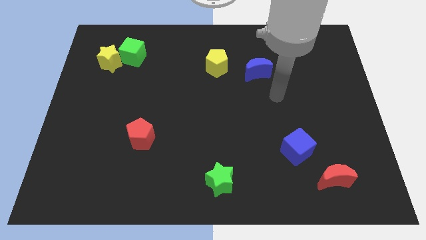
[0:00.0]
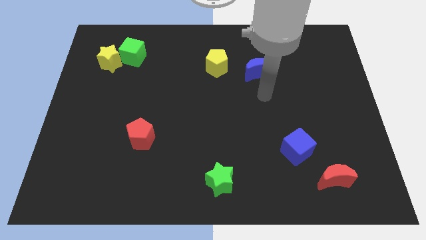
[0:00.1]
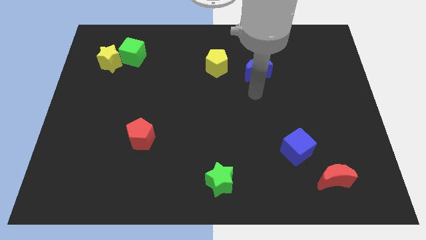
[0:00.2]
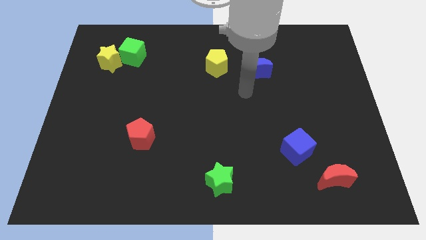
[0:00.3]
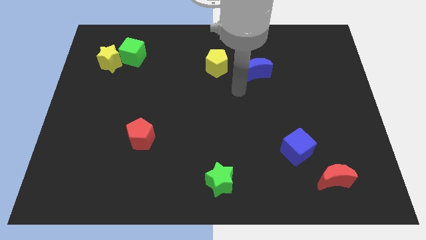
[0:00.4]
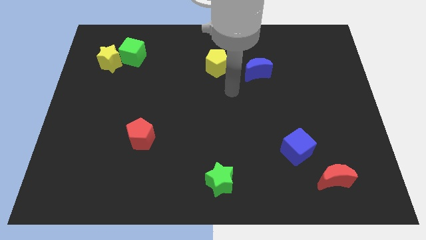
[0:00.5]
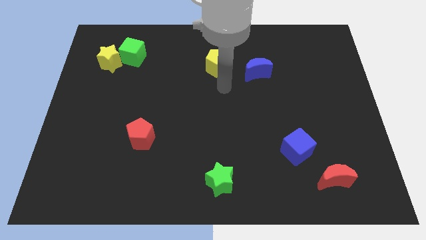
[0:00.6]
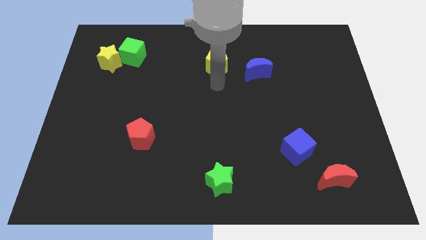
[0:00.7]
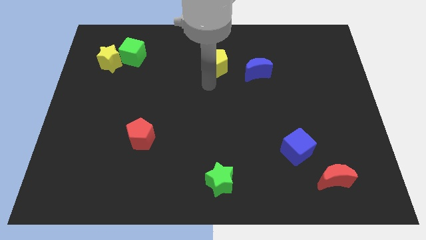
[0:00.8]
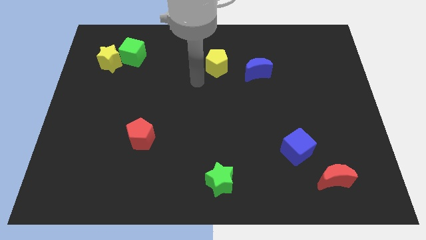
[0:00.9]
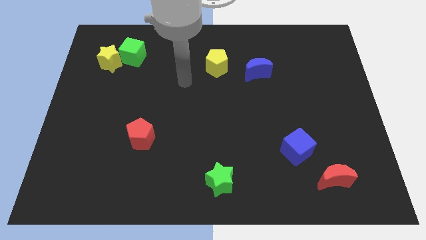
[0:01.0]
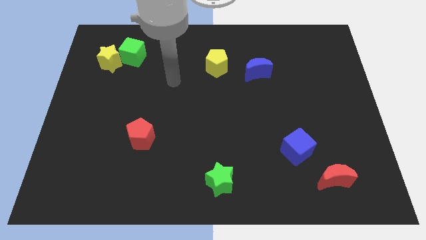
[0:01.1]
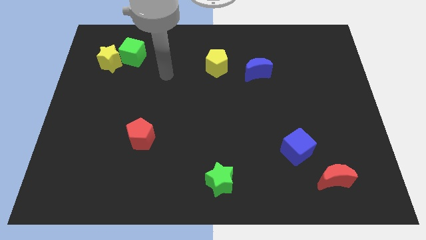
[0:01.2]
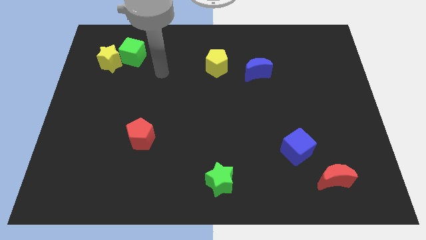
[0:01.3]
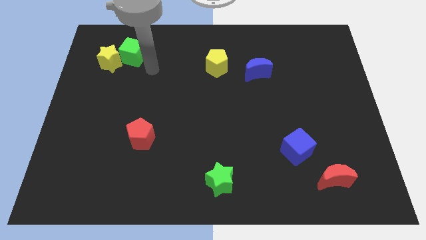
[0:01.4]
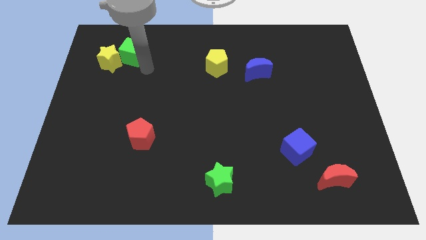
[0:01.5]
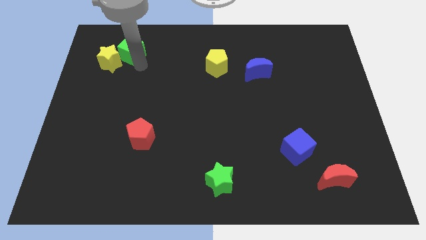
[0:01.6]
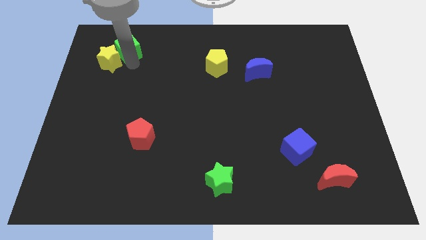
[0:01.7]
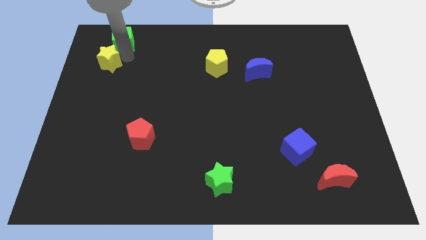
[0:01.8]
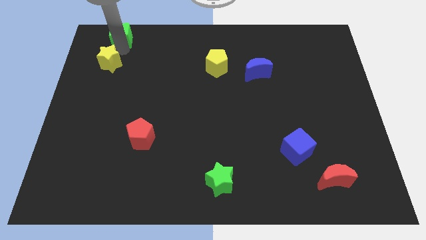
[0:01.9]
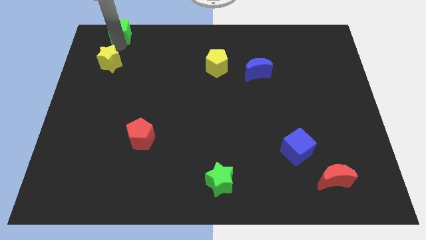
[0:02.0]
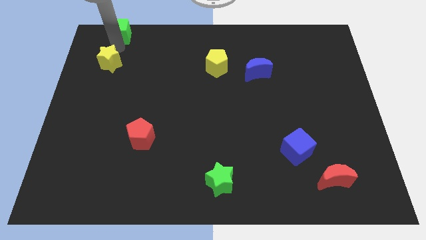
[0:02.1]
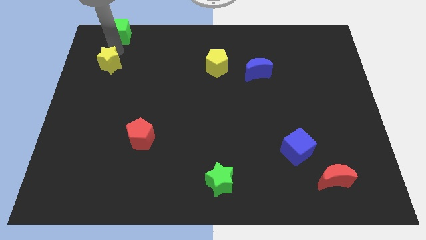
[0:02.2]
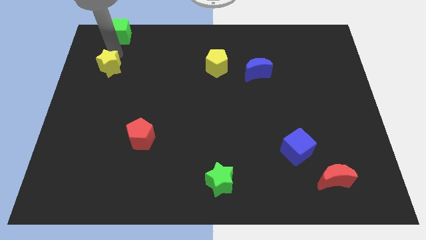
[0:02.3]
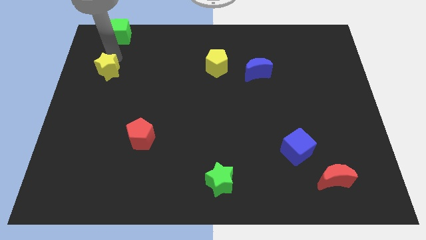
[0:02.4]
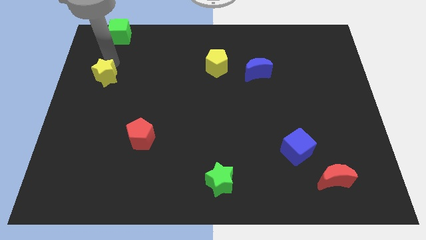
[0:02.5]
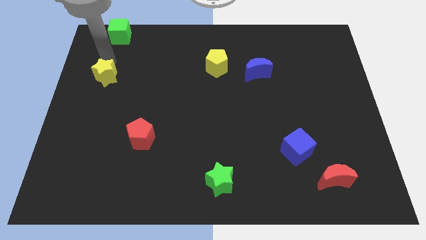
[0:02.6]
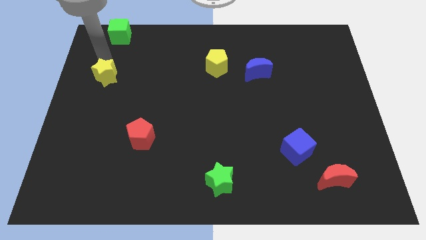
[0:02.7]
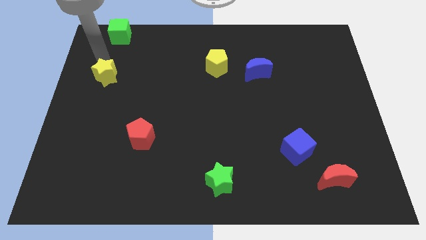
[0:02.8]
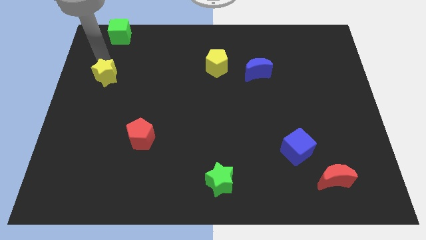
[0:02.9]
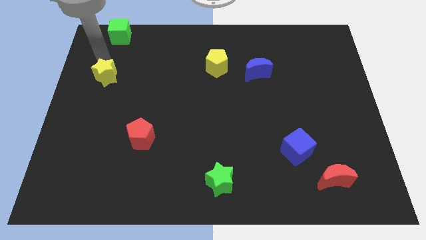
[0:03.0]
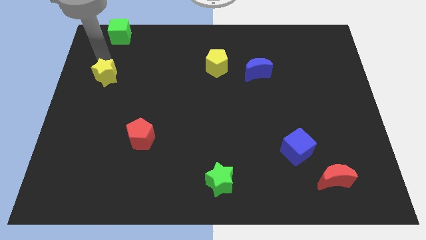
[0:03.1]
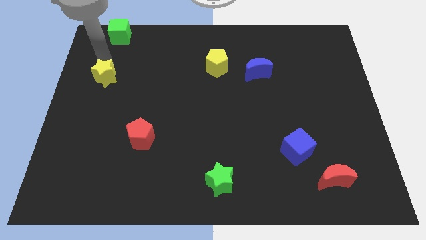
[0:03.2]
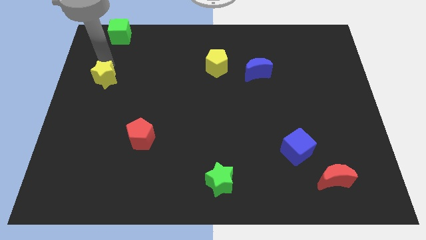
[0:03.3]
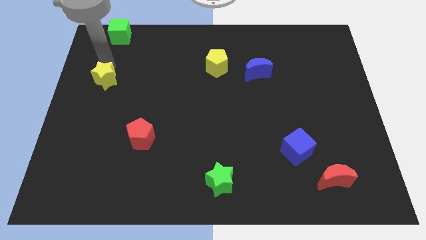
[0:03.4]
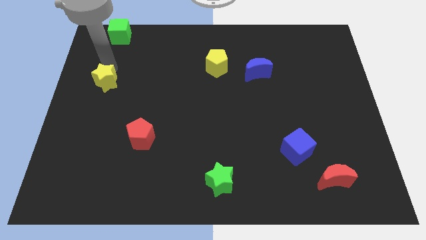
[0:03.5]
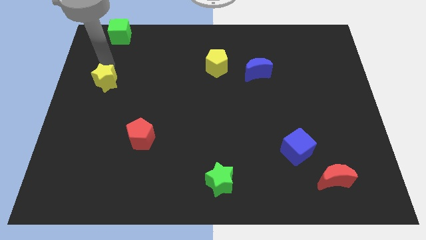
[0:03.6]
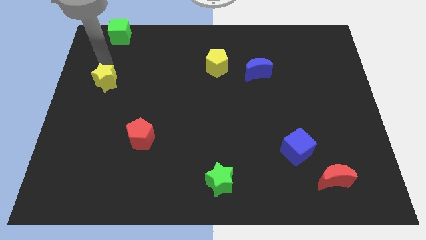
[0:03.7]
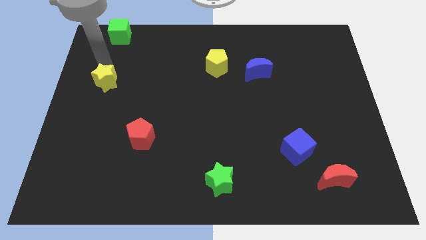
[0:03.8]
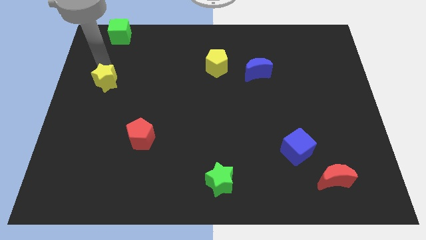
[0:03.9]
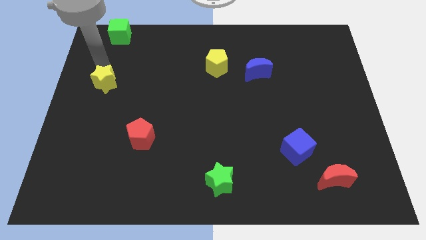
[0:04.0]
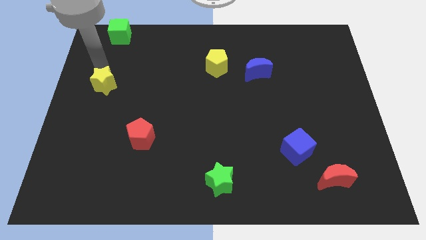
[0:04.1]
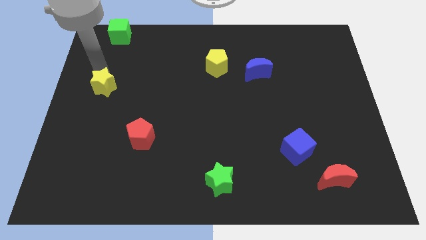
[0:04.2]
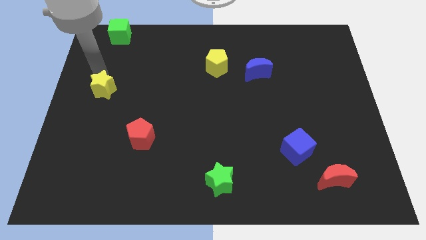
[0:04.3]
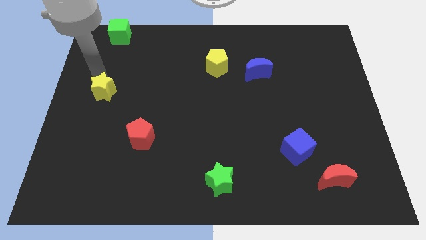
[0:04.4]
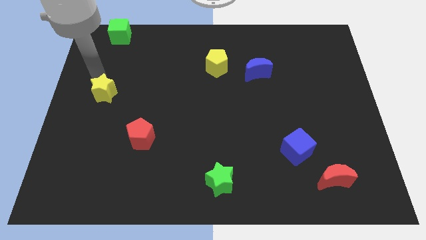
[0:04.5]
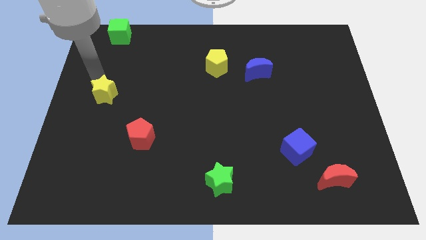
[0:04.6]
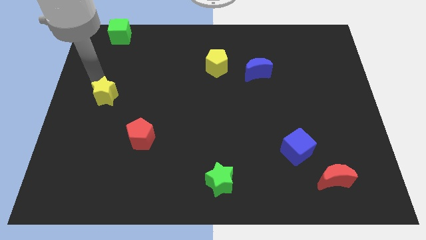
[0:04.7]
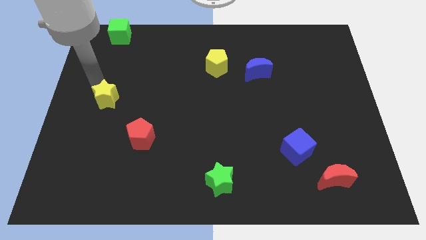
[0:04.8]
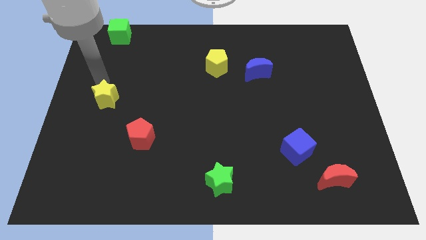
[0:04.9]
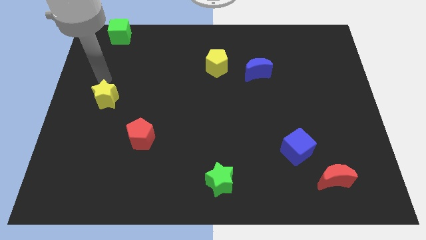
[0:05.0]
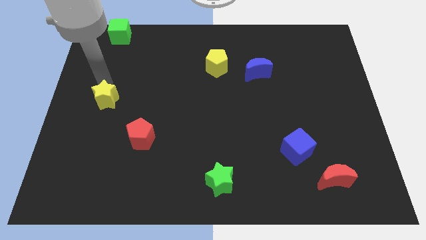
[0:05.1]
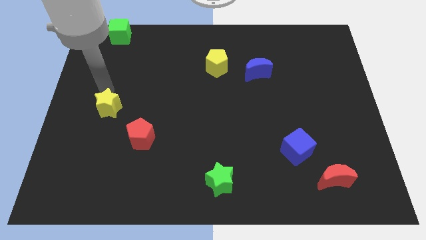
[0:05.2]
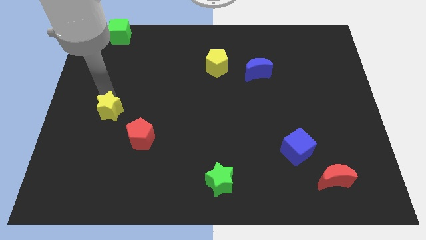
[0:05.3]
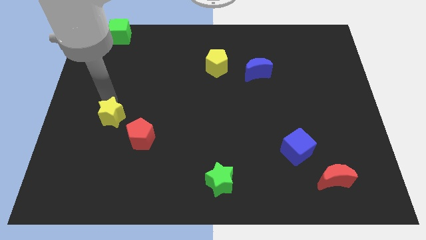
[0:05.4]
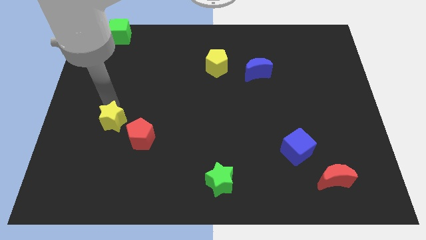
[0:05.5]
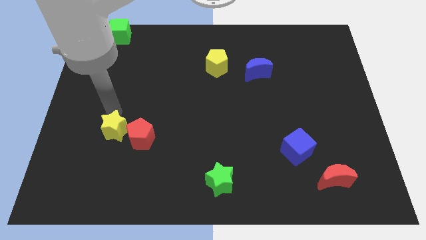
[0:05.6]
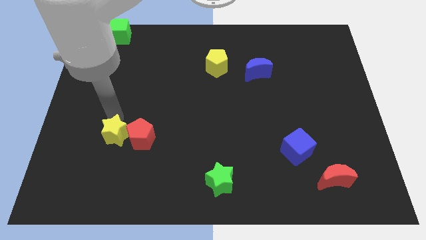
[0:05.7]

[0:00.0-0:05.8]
slide the yellow star to the bottom left side of the red pentagon

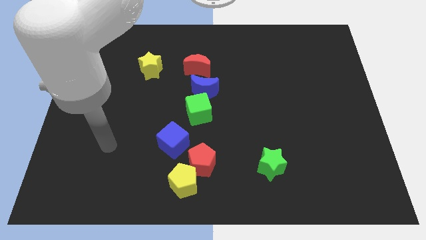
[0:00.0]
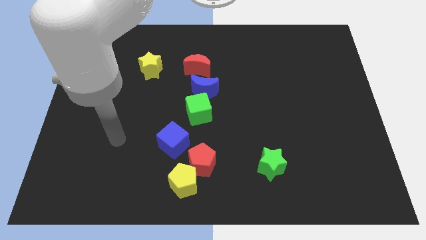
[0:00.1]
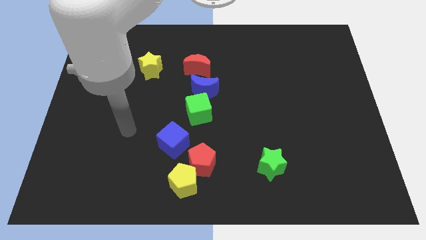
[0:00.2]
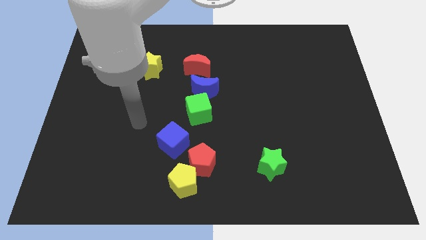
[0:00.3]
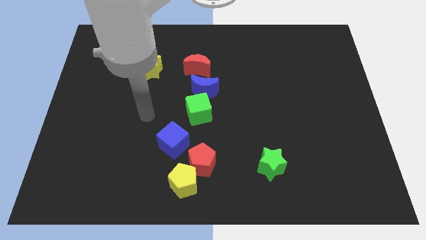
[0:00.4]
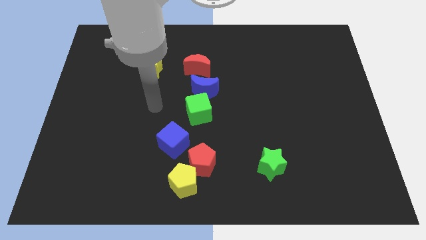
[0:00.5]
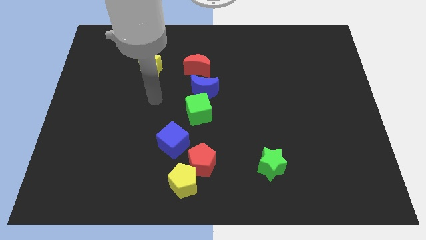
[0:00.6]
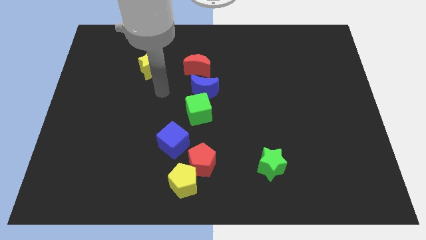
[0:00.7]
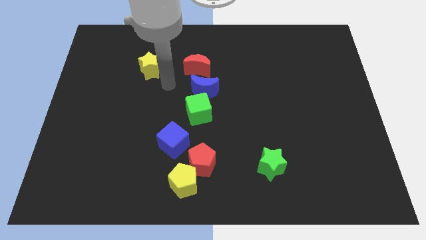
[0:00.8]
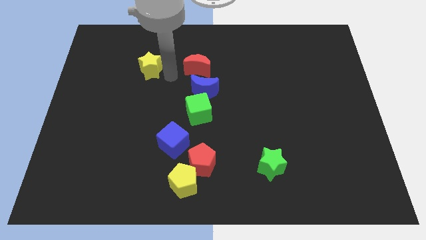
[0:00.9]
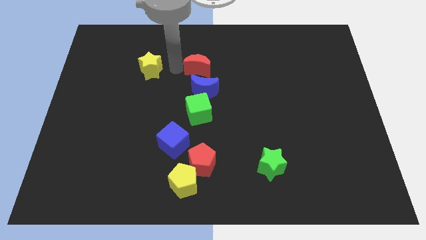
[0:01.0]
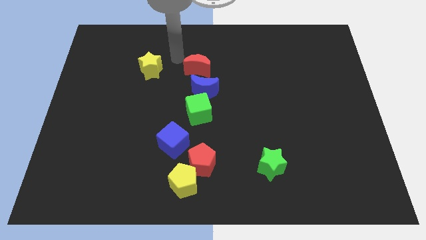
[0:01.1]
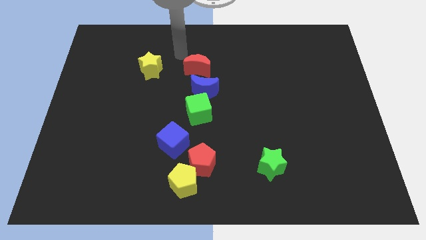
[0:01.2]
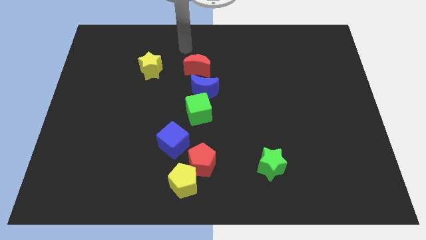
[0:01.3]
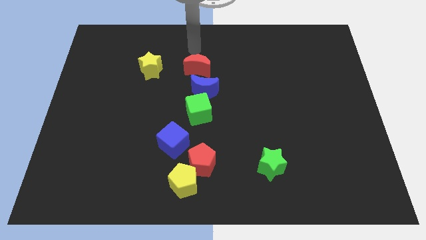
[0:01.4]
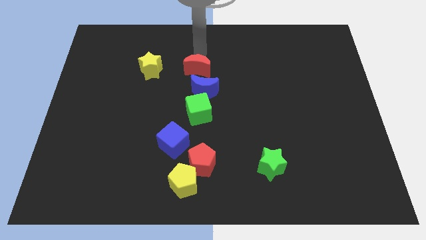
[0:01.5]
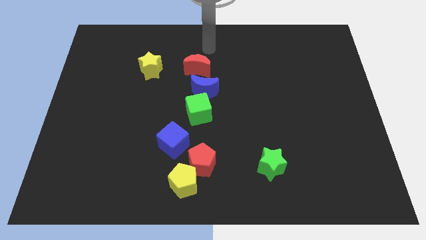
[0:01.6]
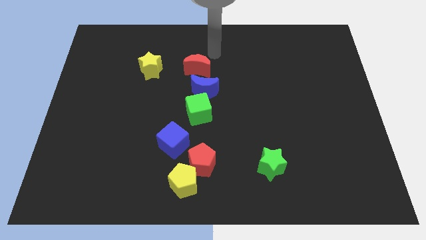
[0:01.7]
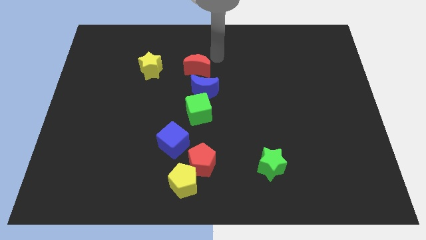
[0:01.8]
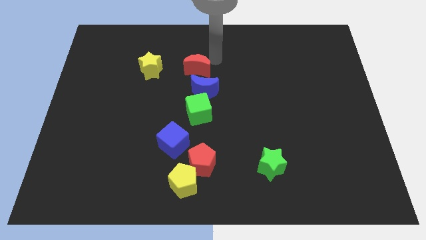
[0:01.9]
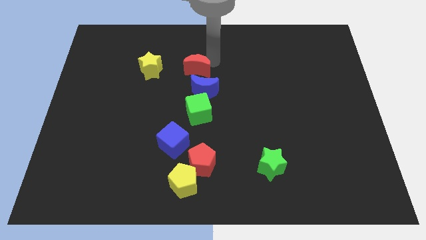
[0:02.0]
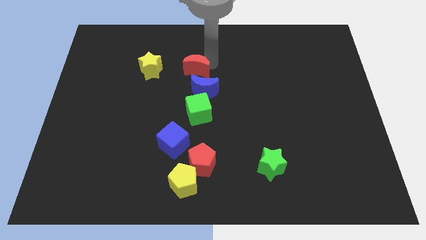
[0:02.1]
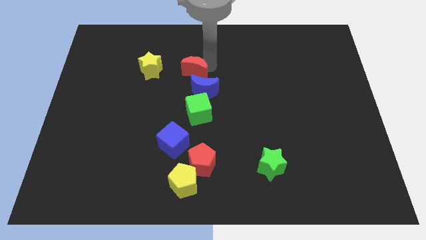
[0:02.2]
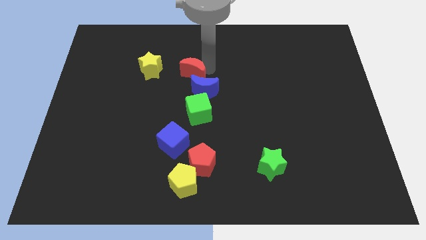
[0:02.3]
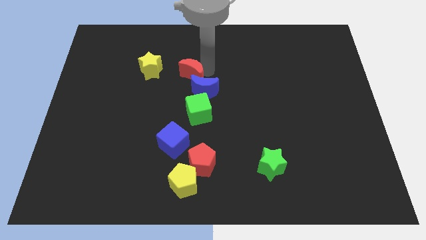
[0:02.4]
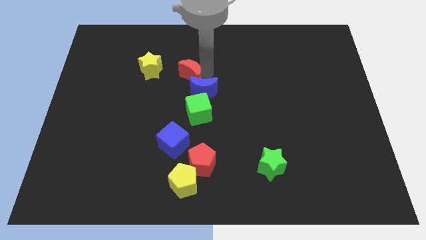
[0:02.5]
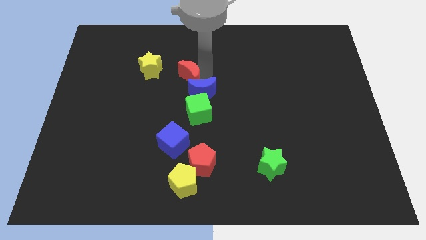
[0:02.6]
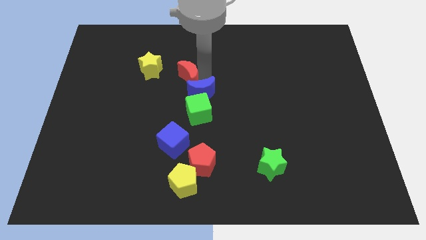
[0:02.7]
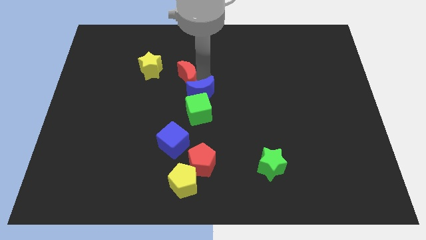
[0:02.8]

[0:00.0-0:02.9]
slide the red moon diagonally down and to the right of the yellow star
